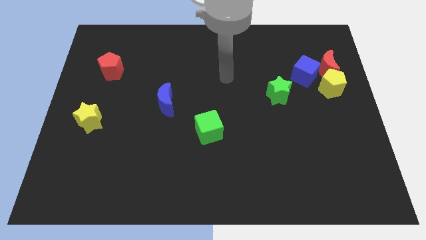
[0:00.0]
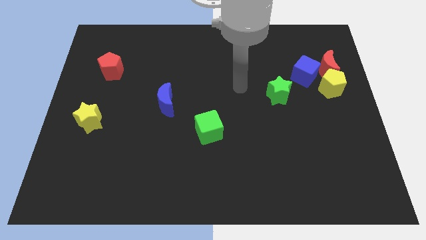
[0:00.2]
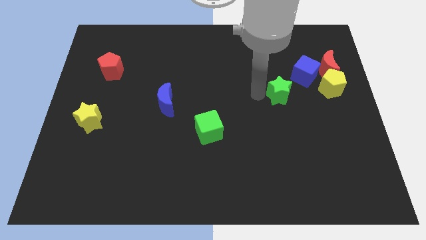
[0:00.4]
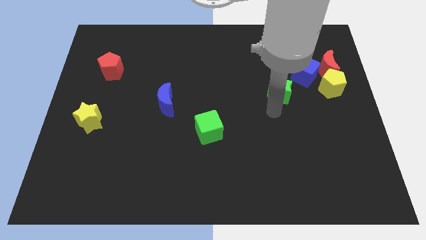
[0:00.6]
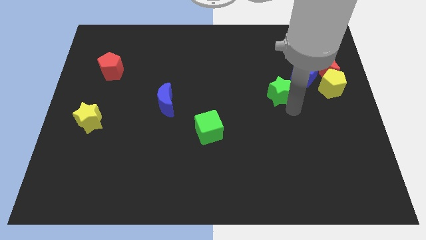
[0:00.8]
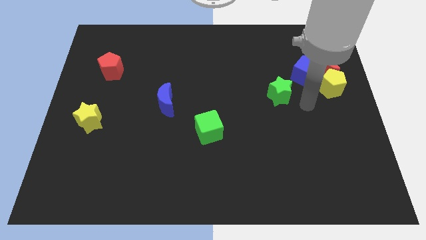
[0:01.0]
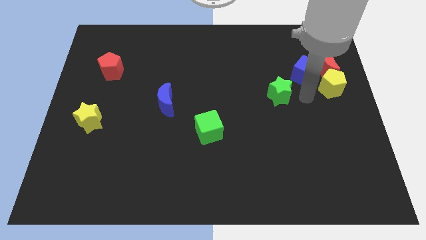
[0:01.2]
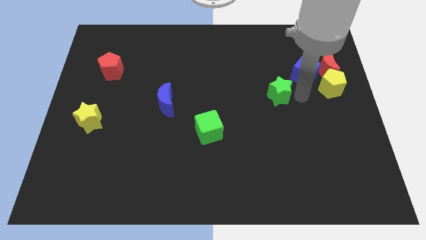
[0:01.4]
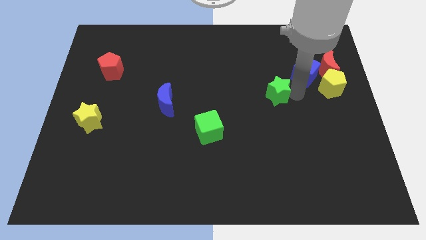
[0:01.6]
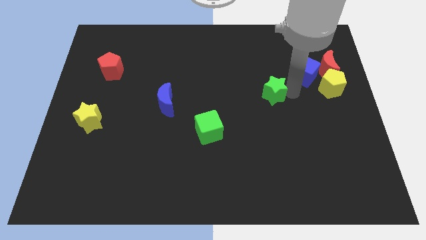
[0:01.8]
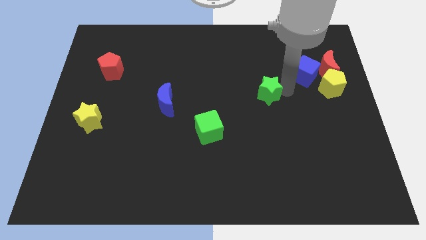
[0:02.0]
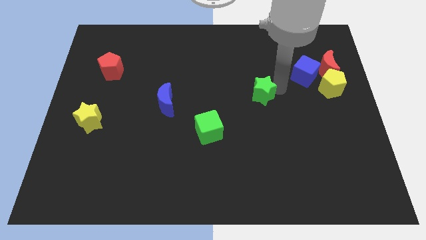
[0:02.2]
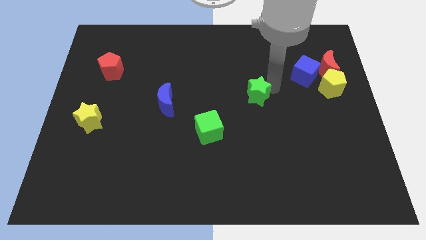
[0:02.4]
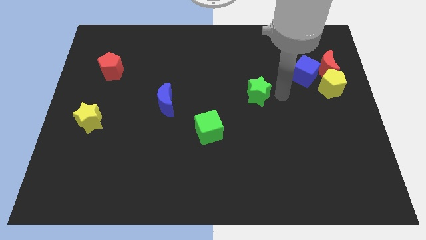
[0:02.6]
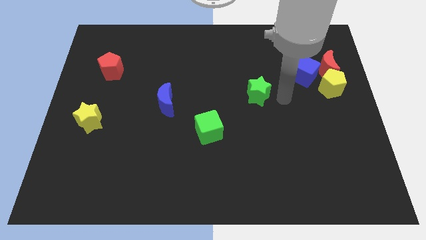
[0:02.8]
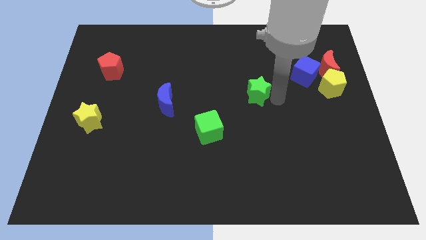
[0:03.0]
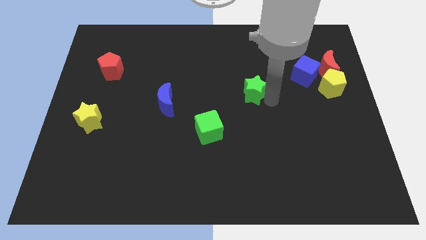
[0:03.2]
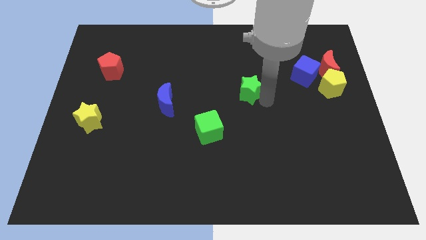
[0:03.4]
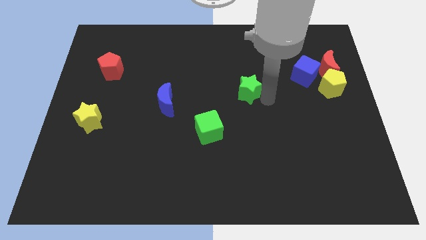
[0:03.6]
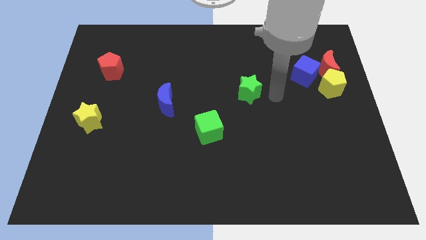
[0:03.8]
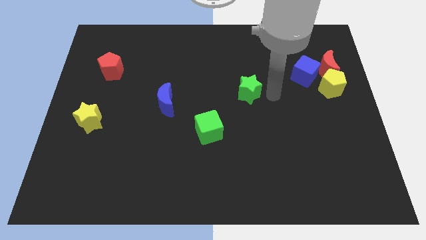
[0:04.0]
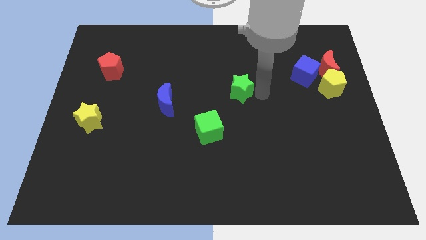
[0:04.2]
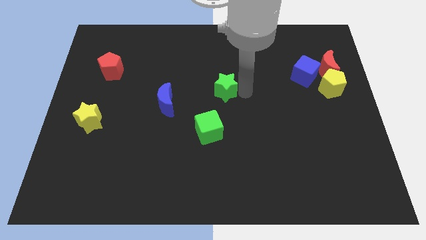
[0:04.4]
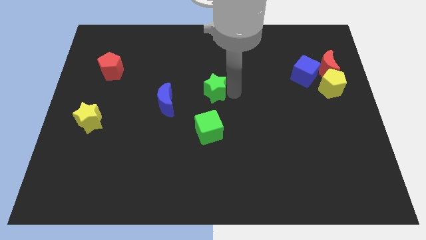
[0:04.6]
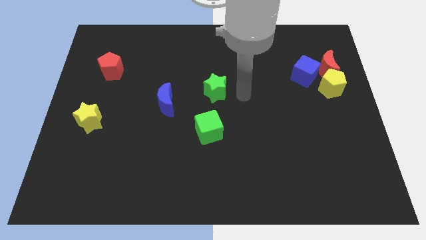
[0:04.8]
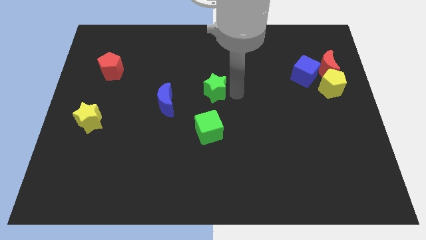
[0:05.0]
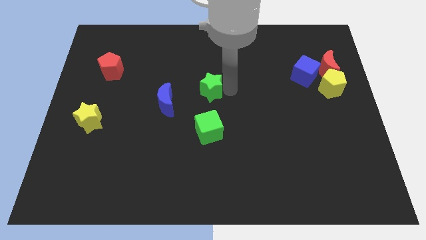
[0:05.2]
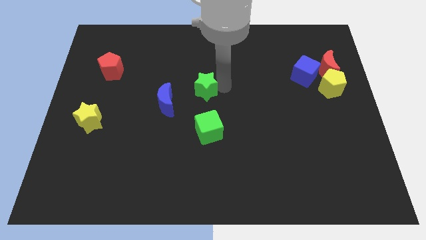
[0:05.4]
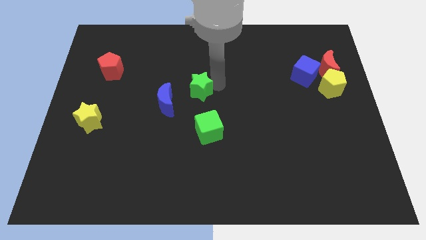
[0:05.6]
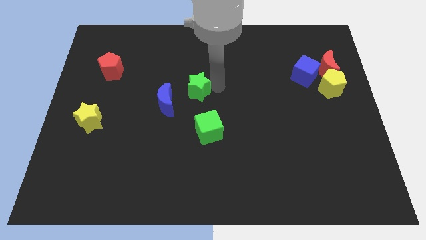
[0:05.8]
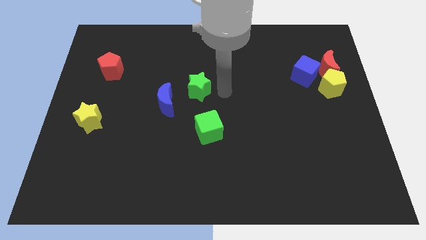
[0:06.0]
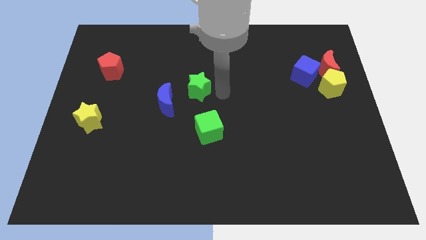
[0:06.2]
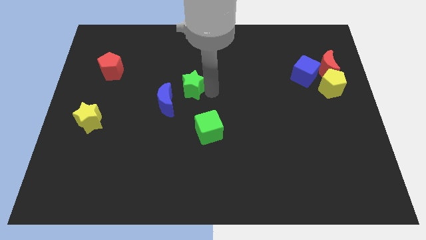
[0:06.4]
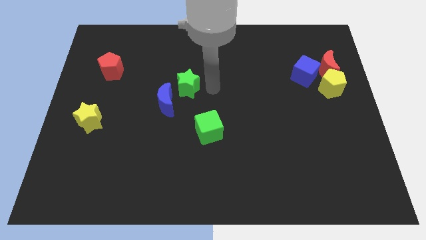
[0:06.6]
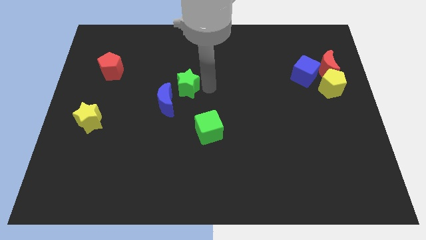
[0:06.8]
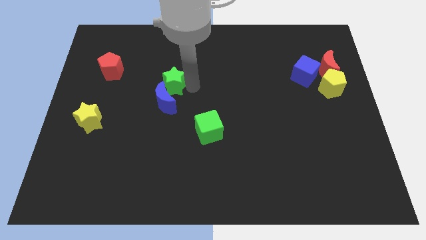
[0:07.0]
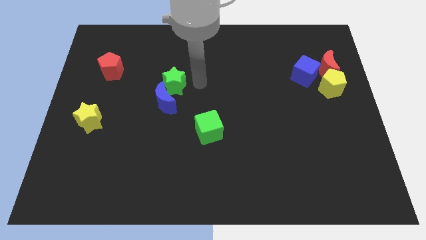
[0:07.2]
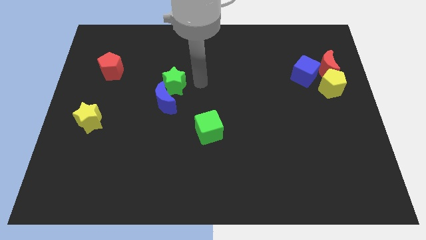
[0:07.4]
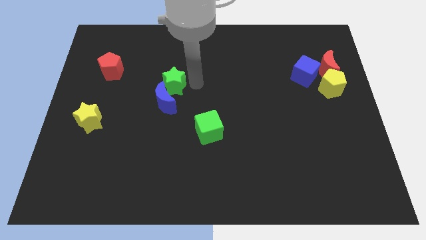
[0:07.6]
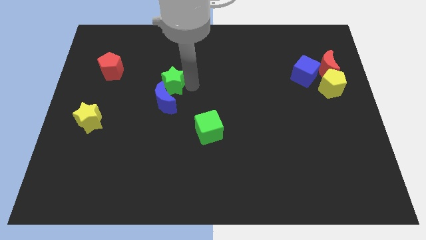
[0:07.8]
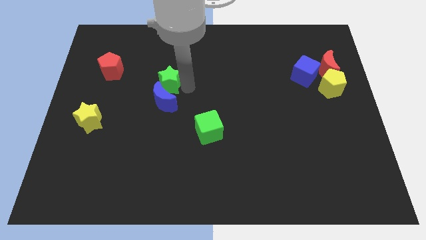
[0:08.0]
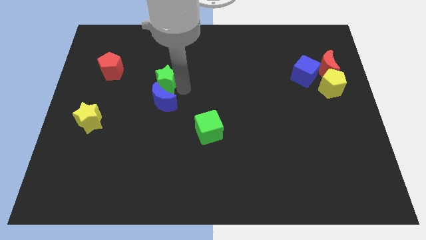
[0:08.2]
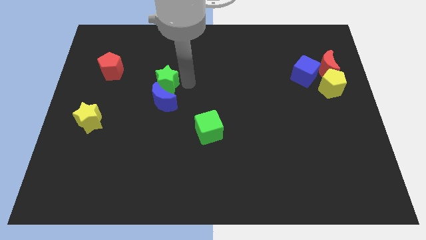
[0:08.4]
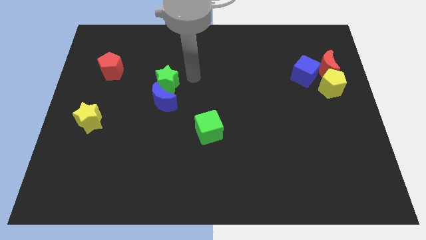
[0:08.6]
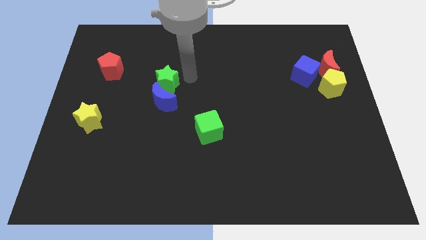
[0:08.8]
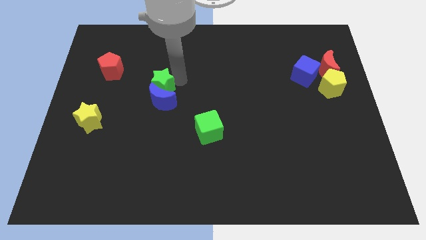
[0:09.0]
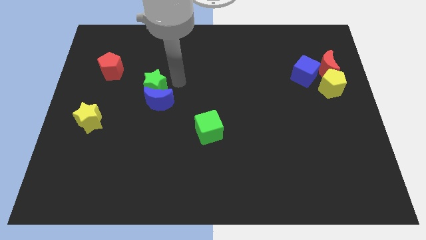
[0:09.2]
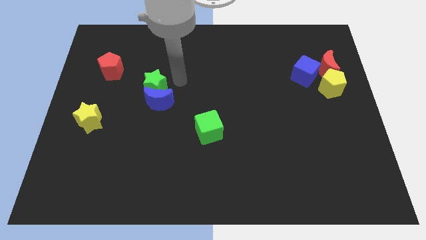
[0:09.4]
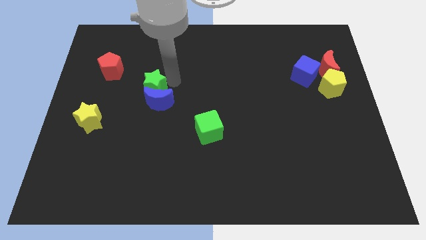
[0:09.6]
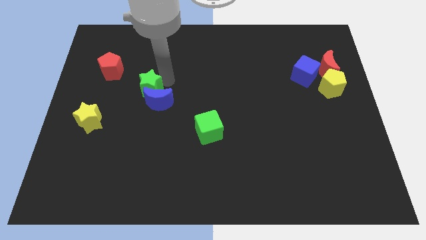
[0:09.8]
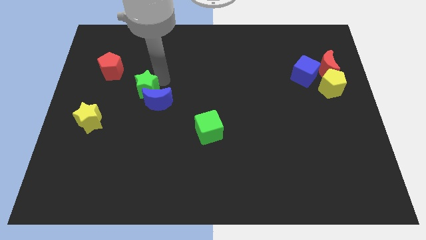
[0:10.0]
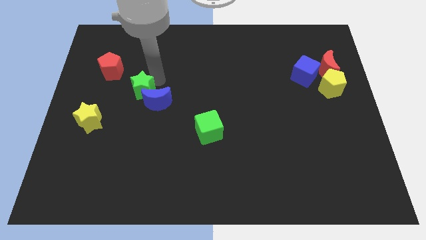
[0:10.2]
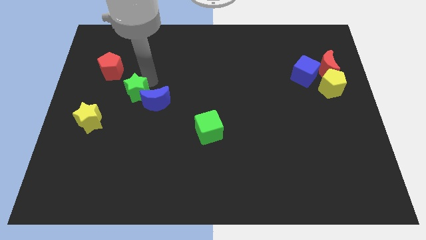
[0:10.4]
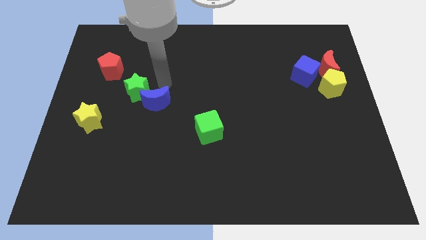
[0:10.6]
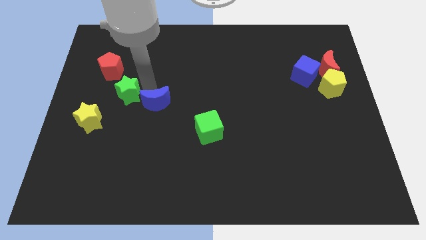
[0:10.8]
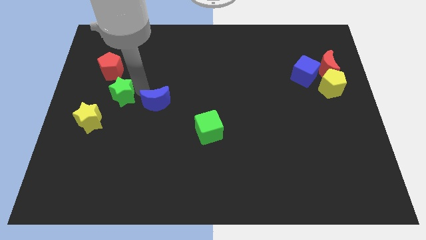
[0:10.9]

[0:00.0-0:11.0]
push the green star to the bottom of the red pentagon

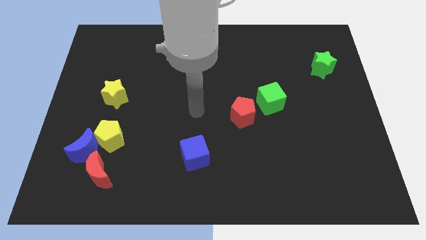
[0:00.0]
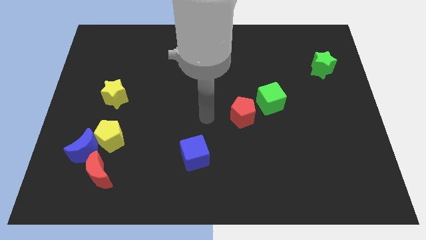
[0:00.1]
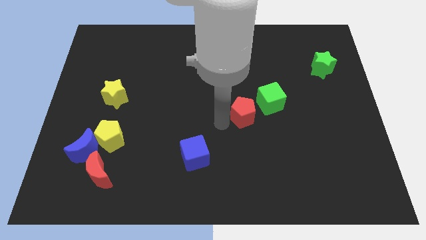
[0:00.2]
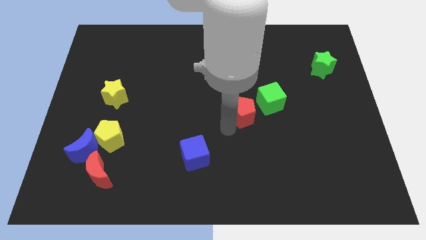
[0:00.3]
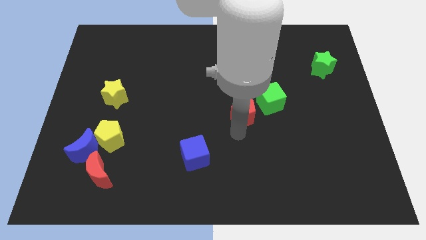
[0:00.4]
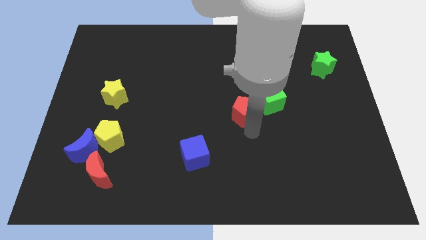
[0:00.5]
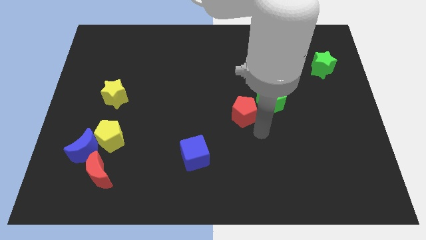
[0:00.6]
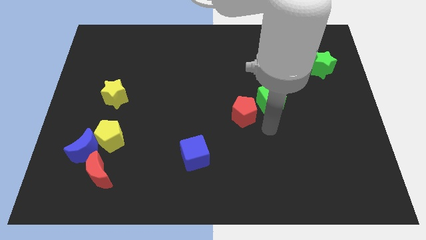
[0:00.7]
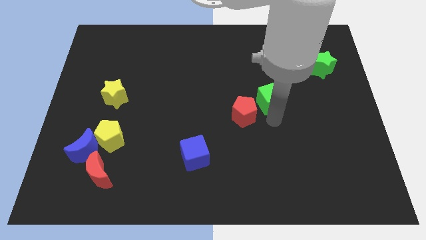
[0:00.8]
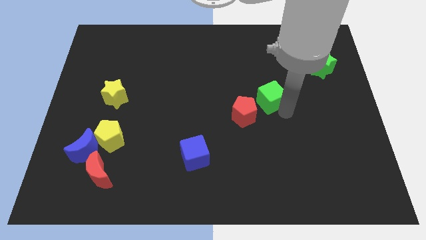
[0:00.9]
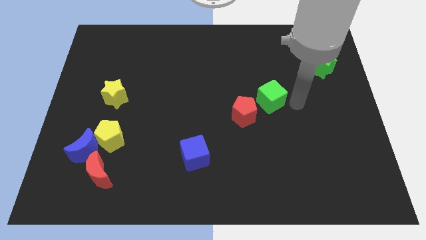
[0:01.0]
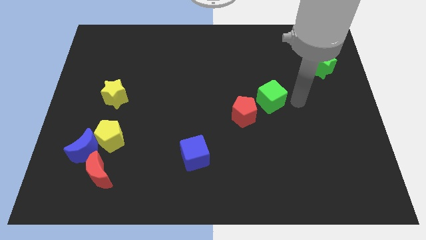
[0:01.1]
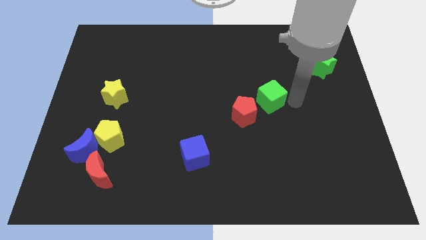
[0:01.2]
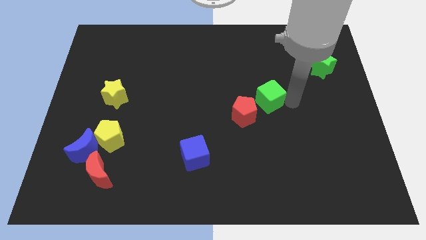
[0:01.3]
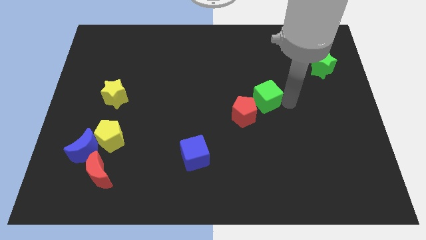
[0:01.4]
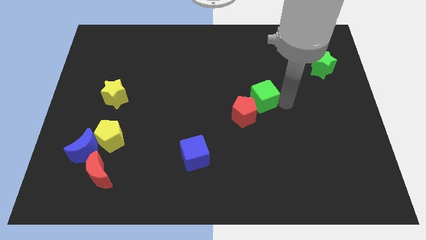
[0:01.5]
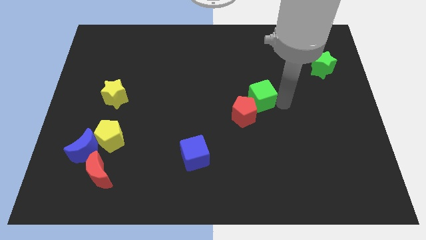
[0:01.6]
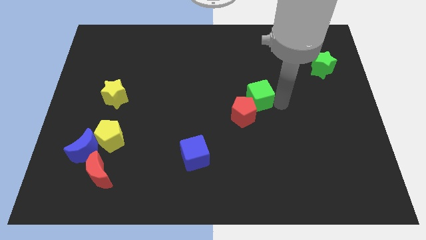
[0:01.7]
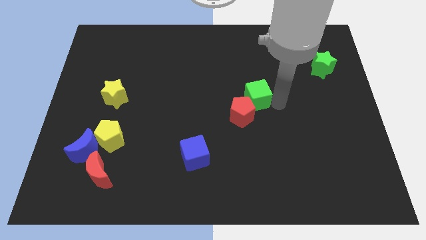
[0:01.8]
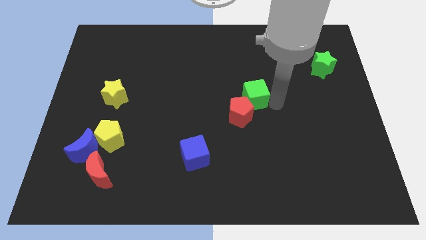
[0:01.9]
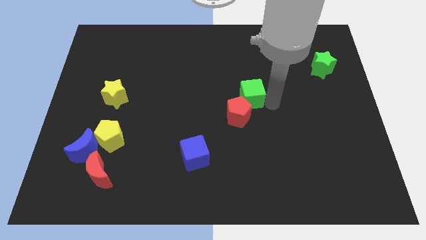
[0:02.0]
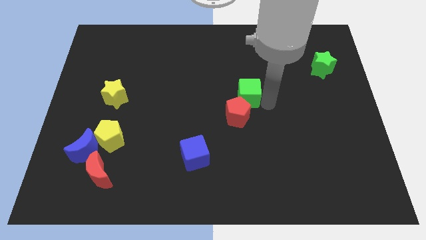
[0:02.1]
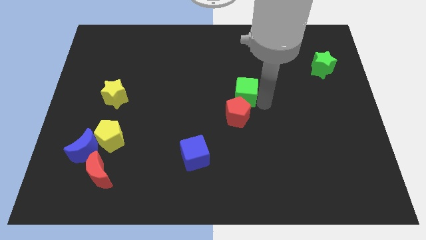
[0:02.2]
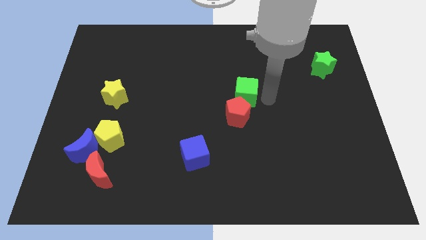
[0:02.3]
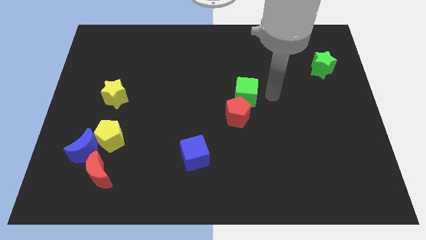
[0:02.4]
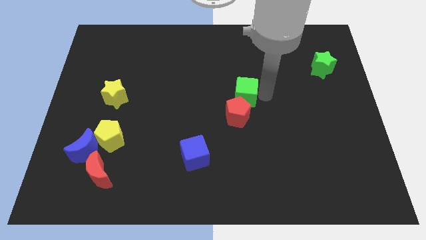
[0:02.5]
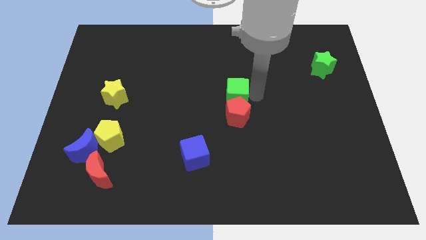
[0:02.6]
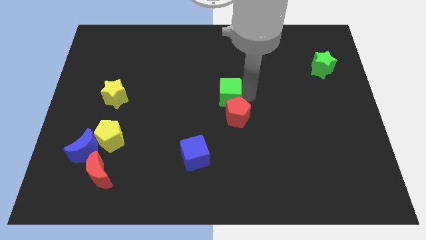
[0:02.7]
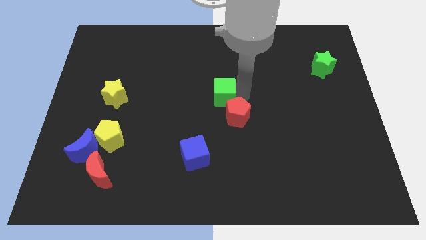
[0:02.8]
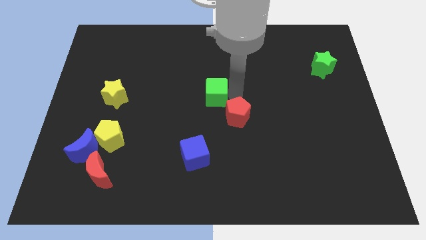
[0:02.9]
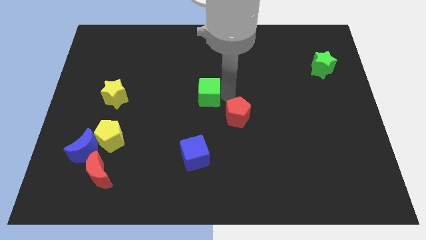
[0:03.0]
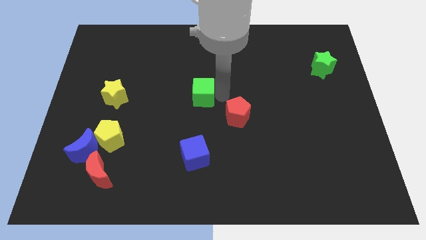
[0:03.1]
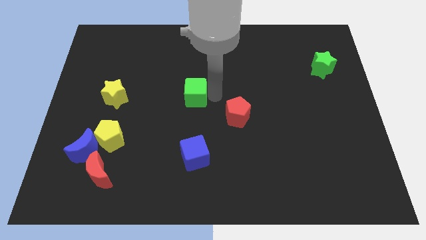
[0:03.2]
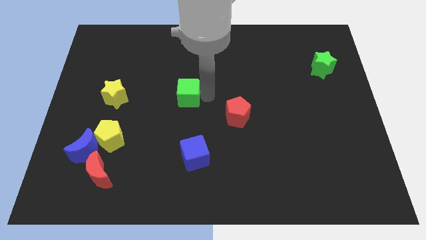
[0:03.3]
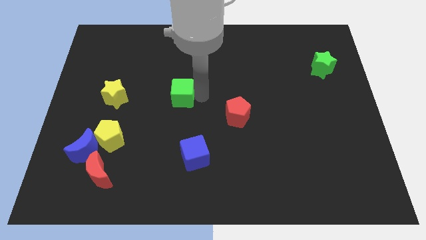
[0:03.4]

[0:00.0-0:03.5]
move the green cube to the right of the yellow star
